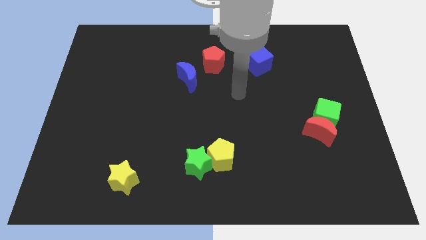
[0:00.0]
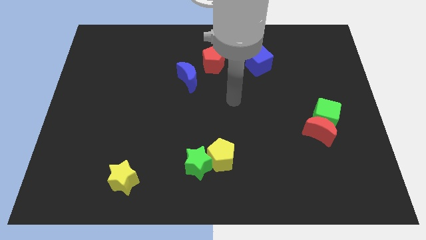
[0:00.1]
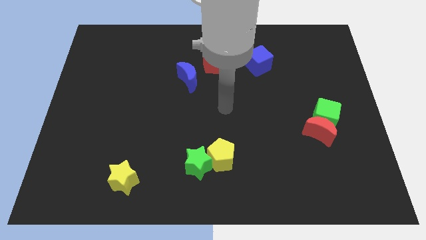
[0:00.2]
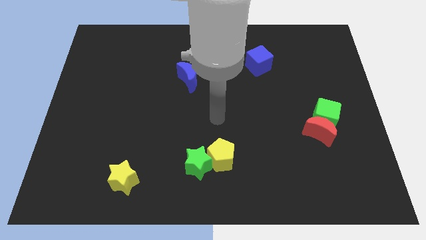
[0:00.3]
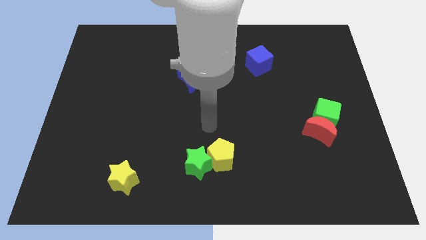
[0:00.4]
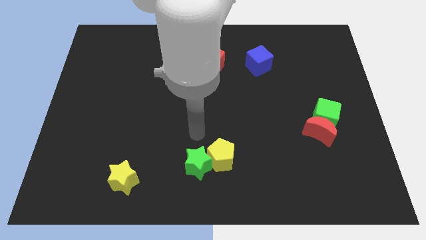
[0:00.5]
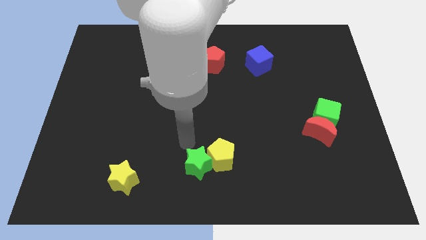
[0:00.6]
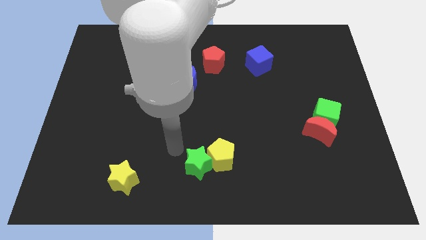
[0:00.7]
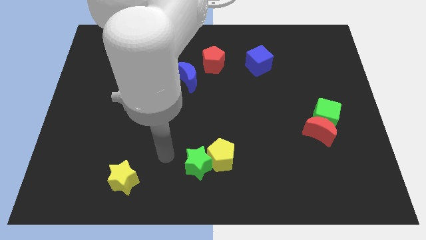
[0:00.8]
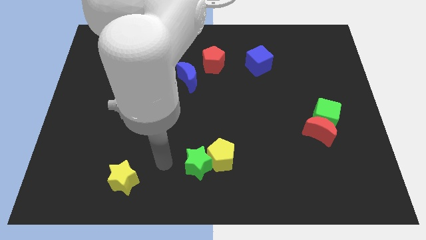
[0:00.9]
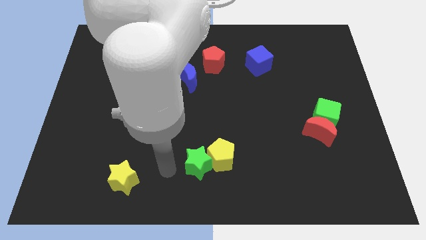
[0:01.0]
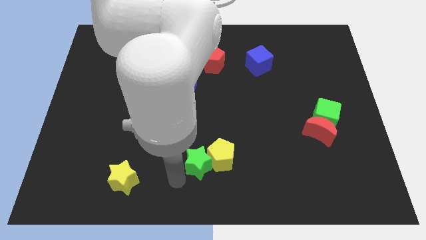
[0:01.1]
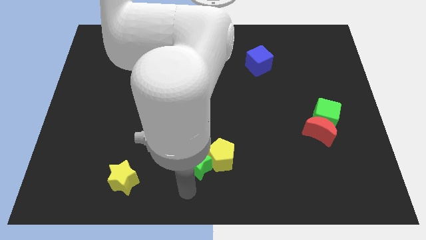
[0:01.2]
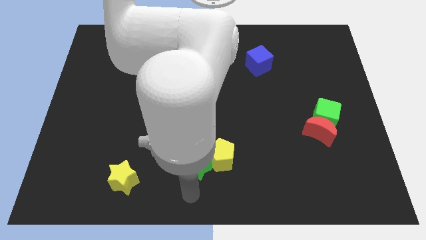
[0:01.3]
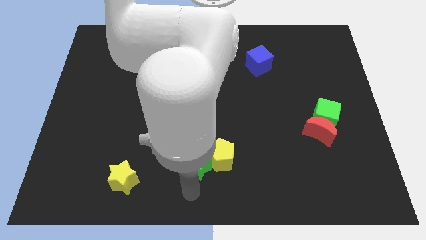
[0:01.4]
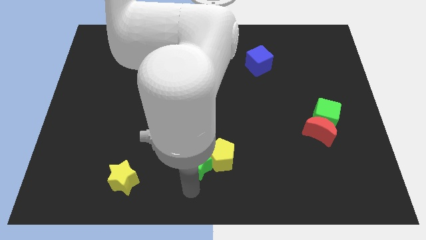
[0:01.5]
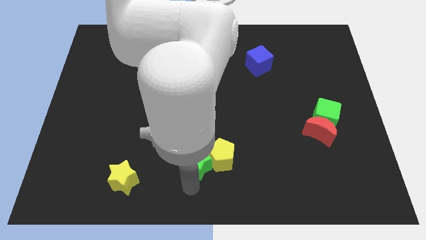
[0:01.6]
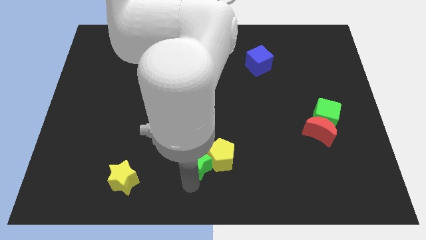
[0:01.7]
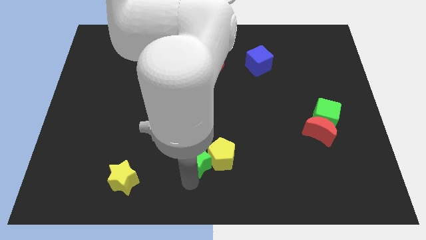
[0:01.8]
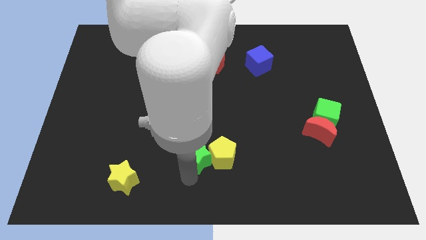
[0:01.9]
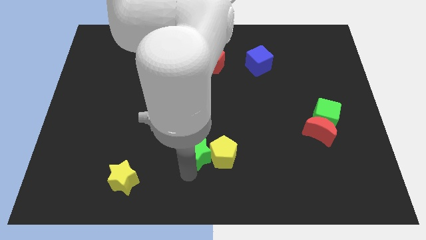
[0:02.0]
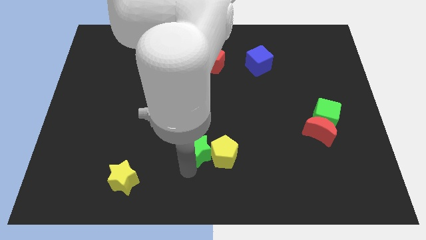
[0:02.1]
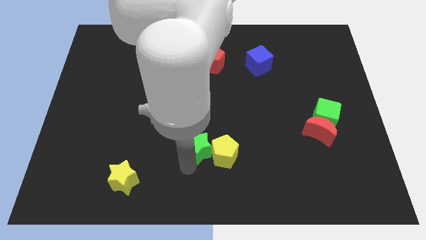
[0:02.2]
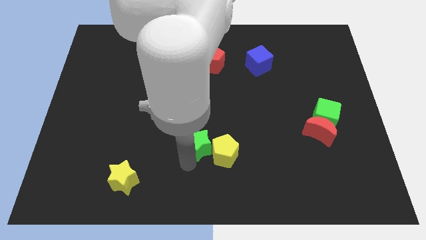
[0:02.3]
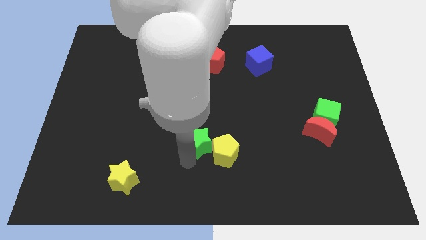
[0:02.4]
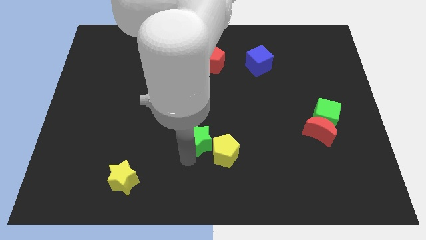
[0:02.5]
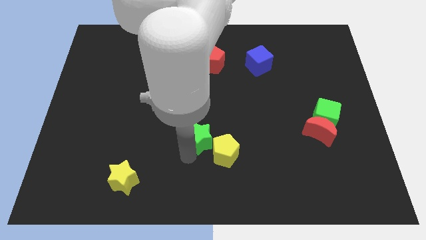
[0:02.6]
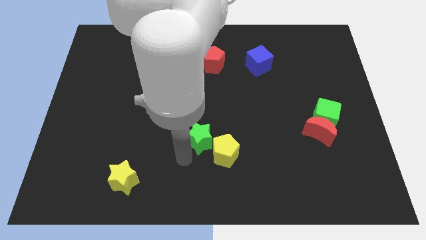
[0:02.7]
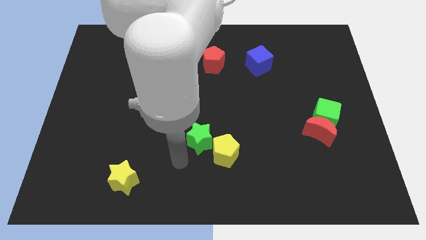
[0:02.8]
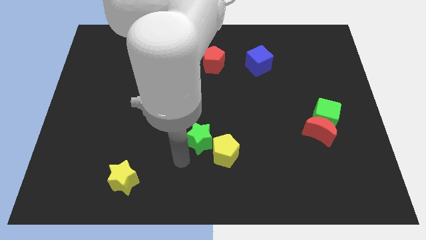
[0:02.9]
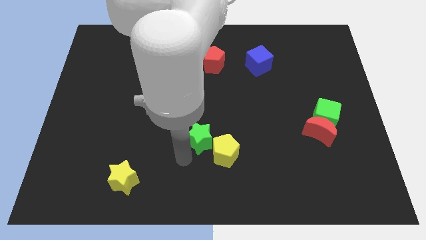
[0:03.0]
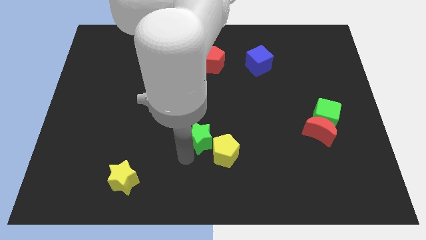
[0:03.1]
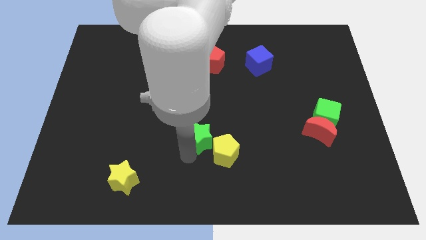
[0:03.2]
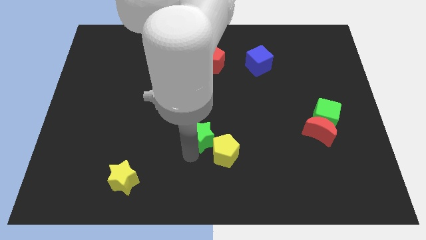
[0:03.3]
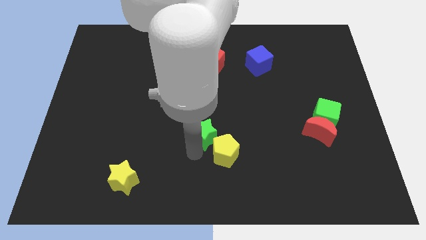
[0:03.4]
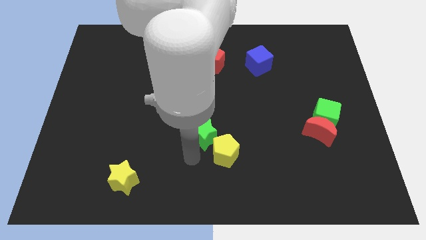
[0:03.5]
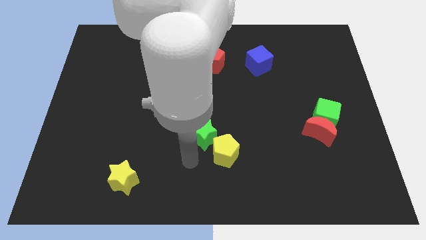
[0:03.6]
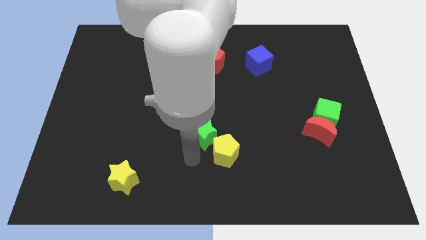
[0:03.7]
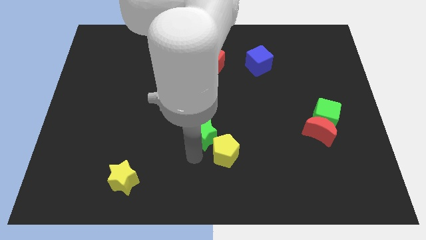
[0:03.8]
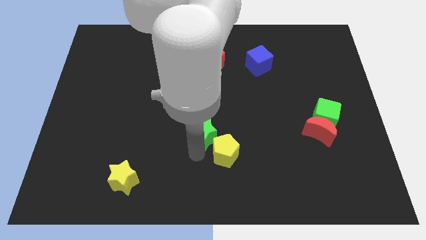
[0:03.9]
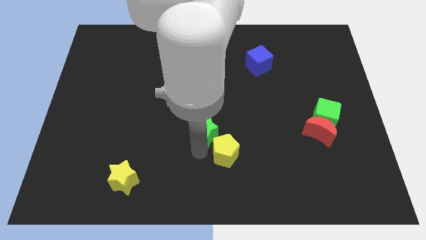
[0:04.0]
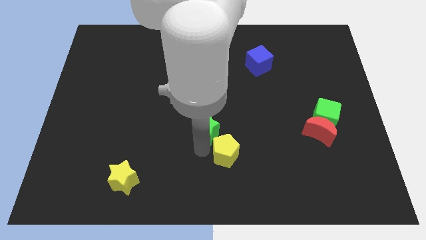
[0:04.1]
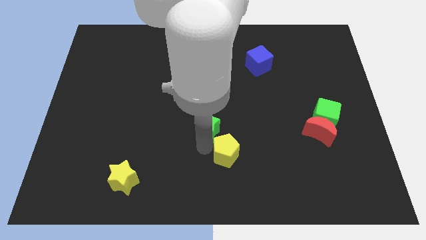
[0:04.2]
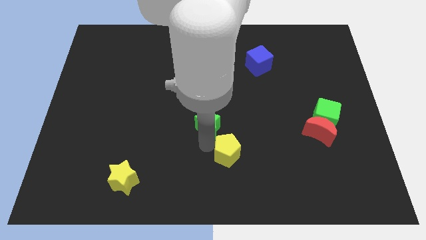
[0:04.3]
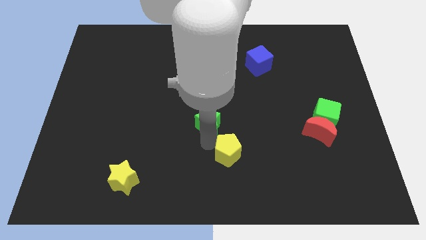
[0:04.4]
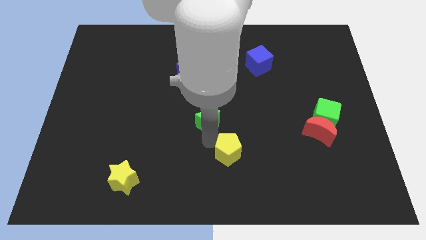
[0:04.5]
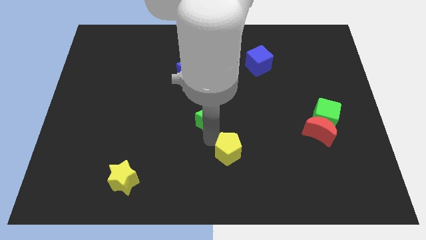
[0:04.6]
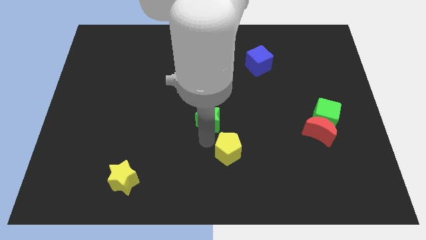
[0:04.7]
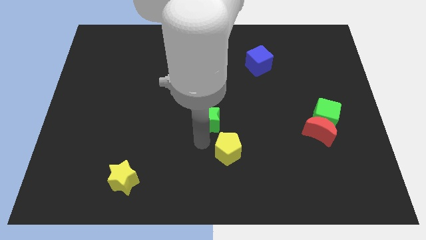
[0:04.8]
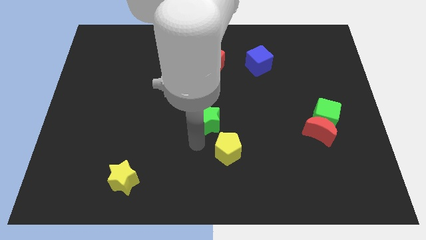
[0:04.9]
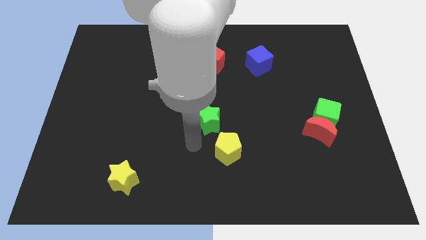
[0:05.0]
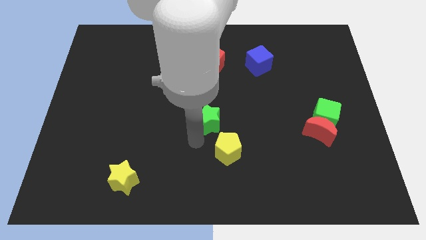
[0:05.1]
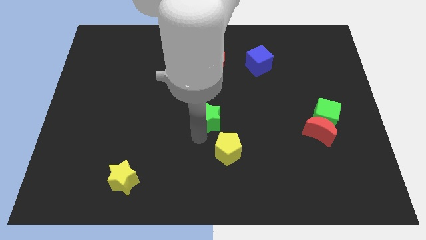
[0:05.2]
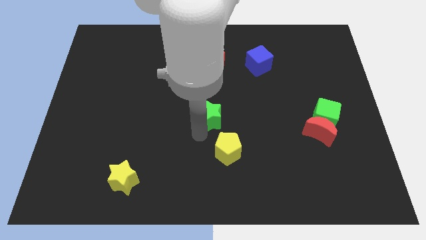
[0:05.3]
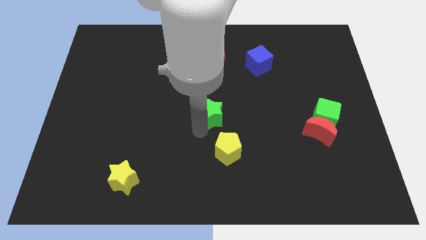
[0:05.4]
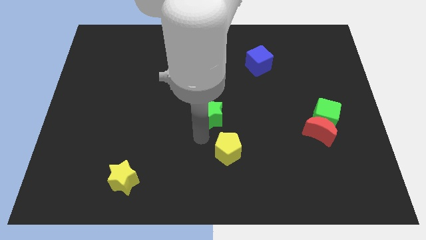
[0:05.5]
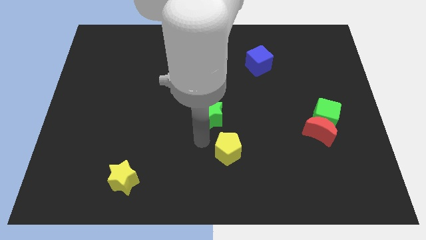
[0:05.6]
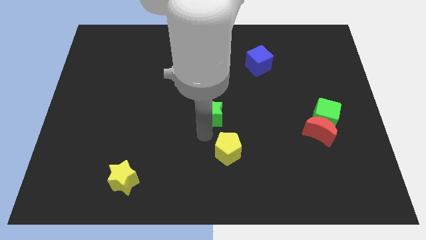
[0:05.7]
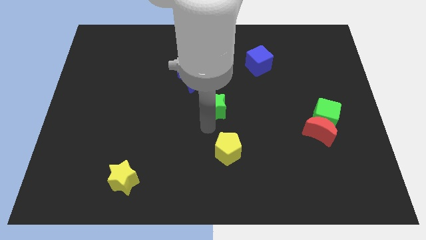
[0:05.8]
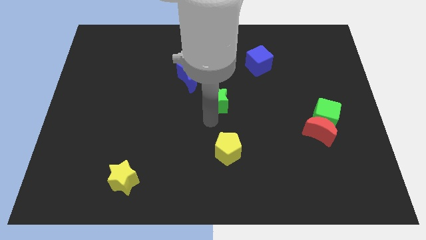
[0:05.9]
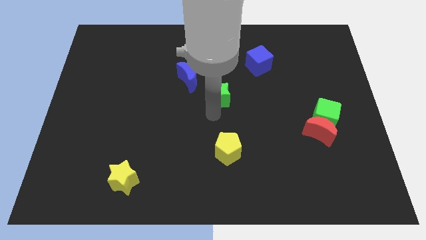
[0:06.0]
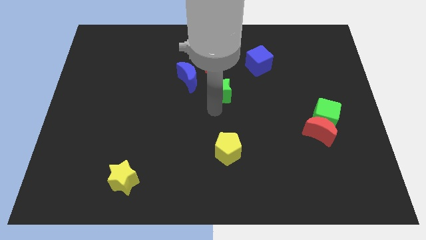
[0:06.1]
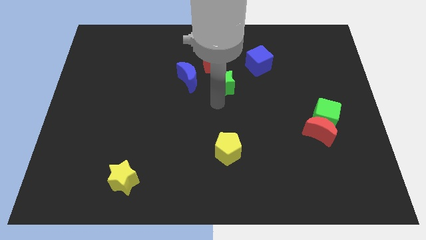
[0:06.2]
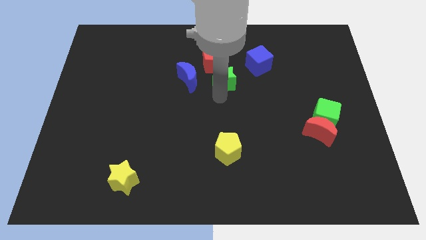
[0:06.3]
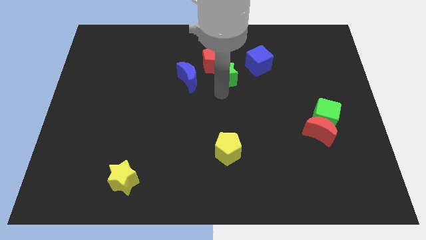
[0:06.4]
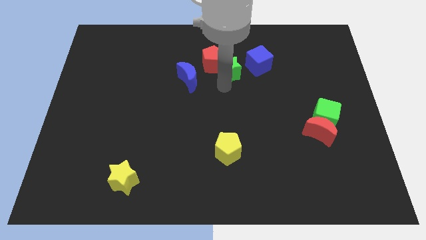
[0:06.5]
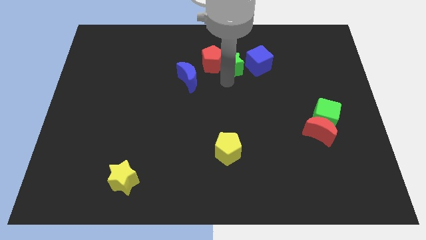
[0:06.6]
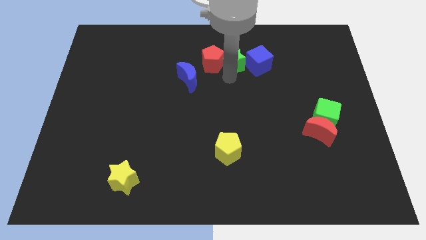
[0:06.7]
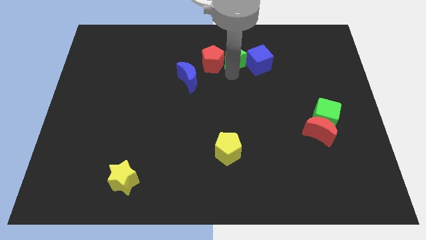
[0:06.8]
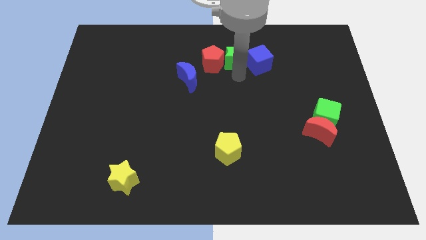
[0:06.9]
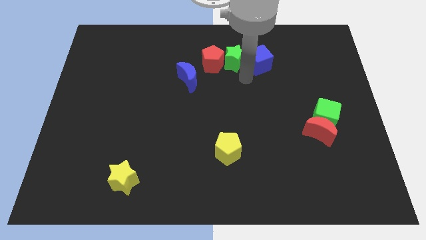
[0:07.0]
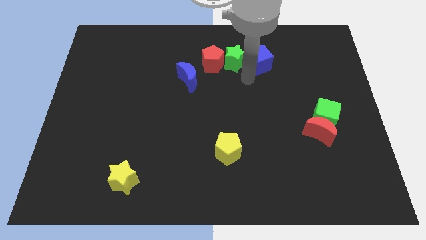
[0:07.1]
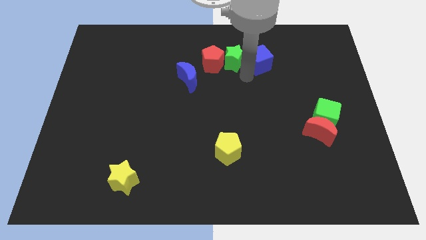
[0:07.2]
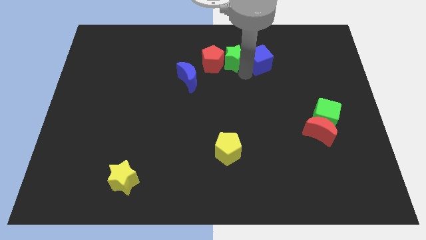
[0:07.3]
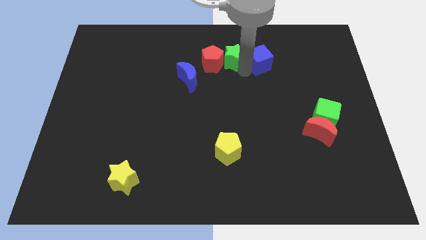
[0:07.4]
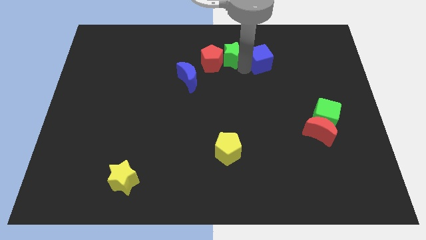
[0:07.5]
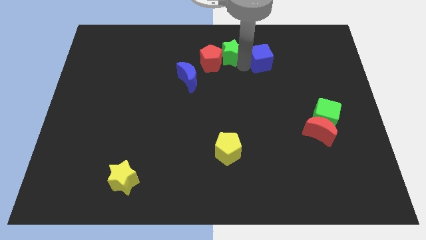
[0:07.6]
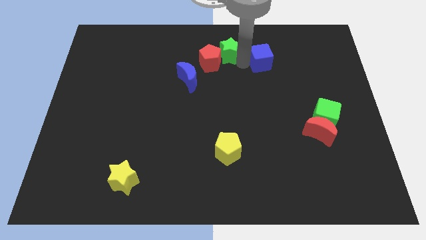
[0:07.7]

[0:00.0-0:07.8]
put the green star to the top side
